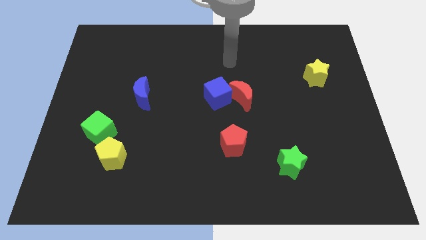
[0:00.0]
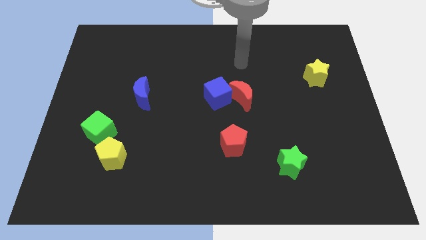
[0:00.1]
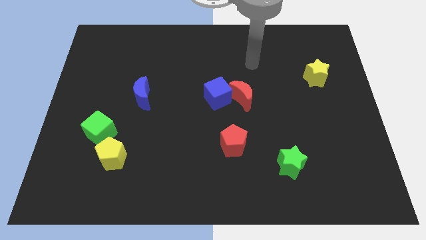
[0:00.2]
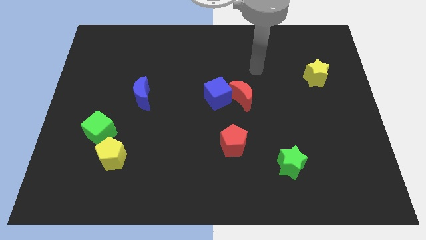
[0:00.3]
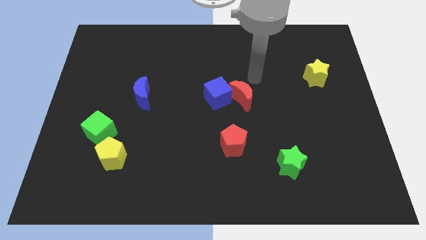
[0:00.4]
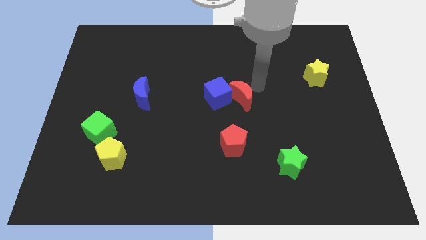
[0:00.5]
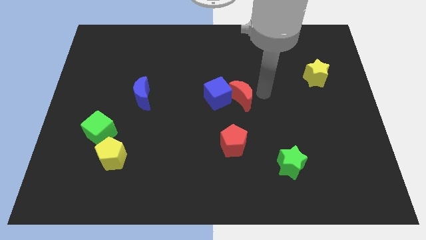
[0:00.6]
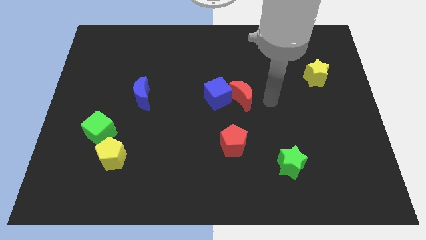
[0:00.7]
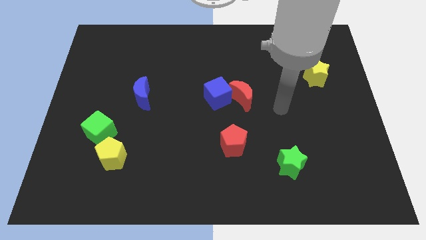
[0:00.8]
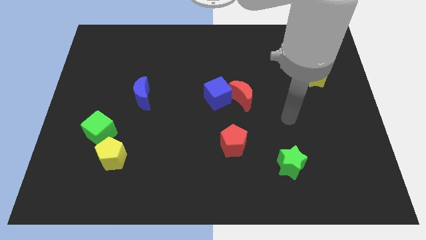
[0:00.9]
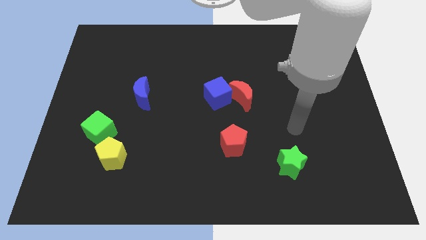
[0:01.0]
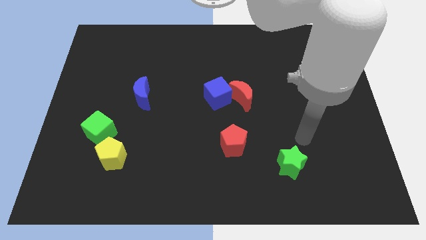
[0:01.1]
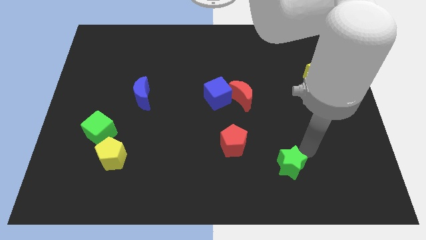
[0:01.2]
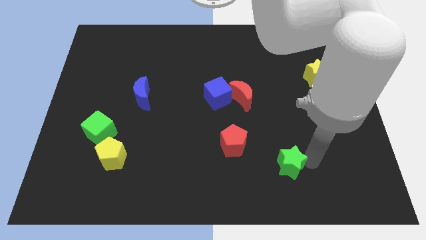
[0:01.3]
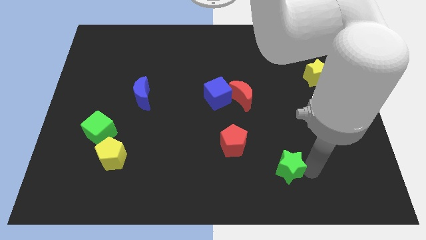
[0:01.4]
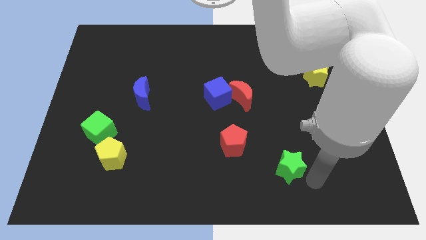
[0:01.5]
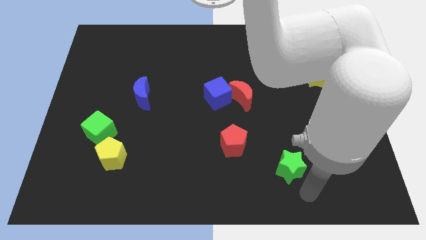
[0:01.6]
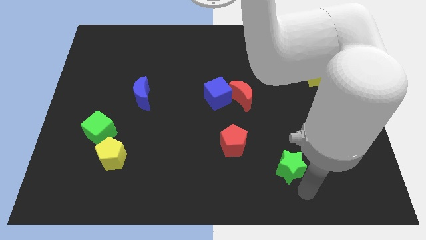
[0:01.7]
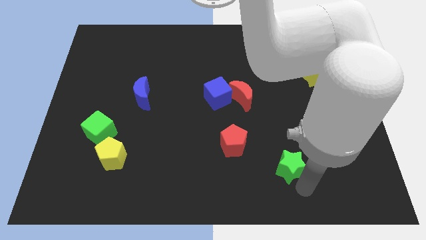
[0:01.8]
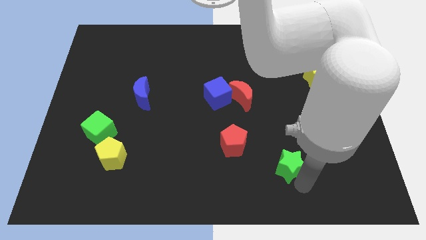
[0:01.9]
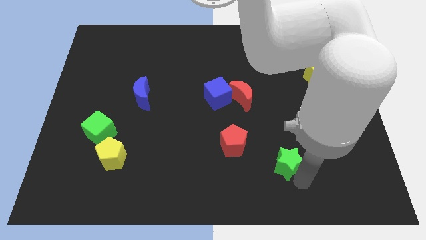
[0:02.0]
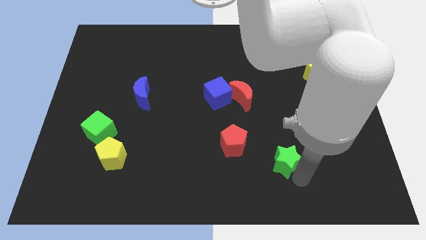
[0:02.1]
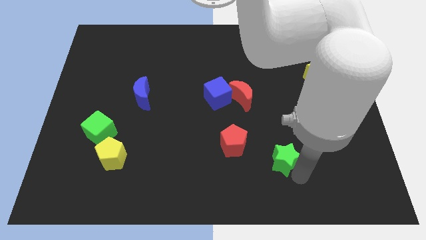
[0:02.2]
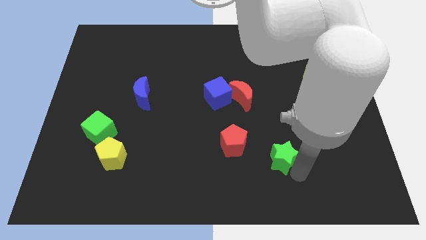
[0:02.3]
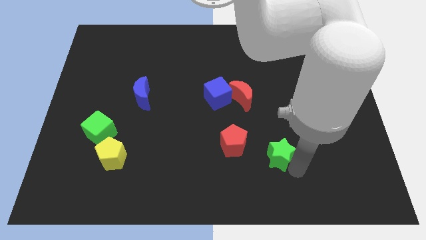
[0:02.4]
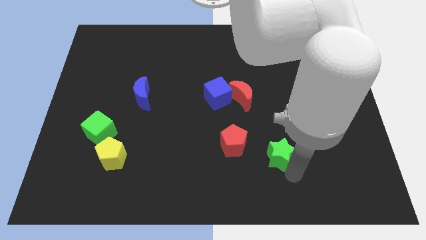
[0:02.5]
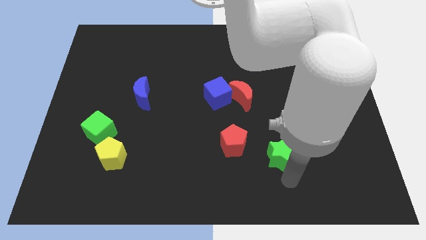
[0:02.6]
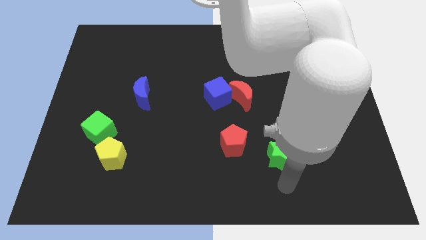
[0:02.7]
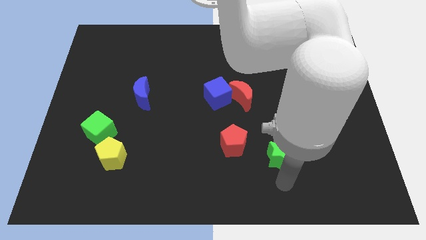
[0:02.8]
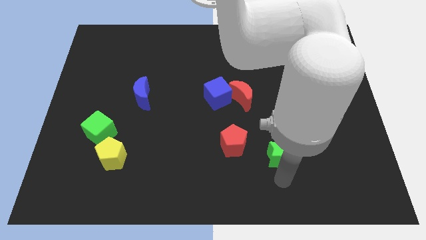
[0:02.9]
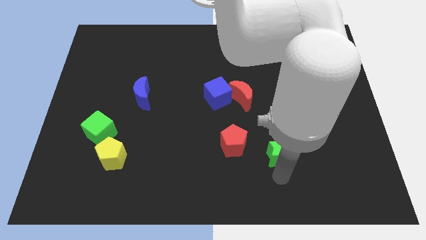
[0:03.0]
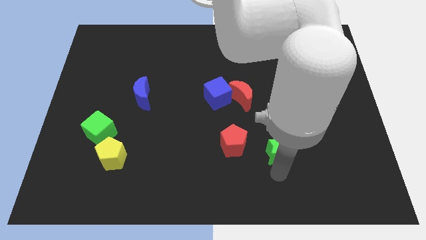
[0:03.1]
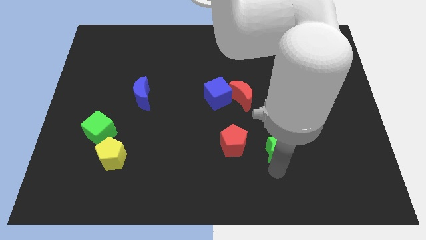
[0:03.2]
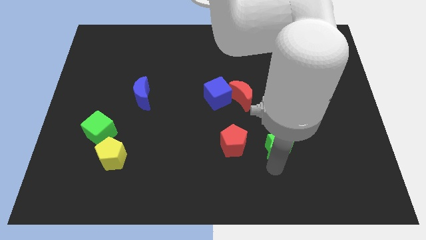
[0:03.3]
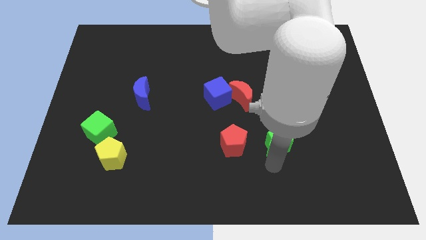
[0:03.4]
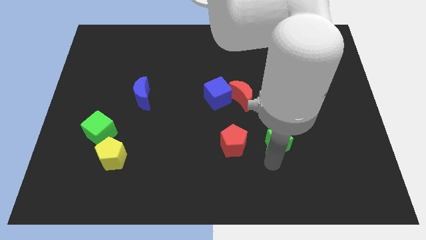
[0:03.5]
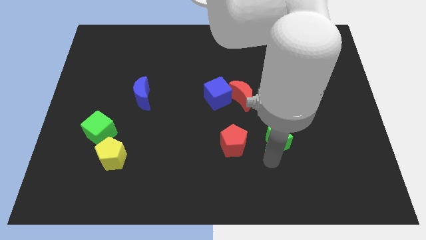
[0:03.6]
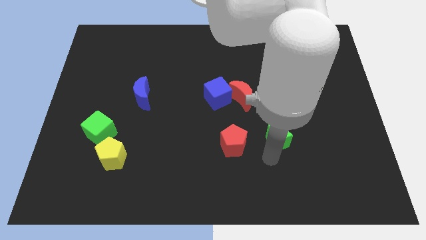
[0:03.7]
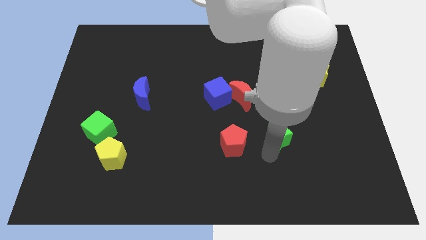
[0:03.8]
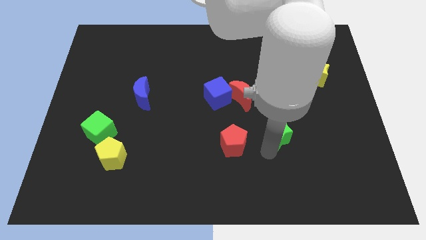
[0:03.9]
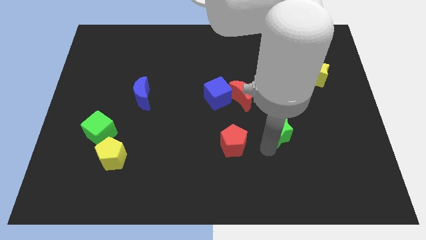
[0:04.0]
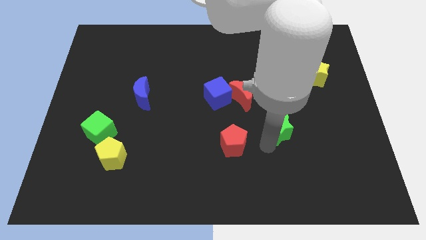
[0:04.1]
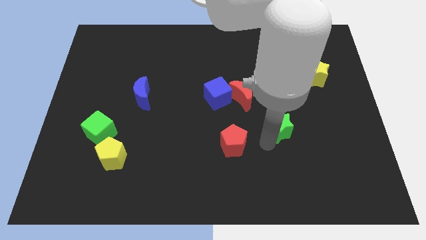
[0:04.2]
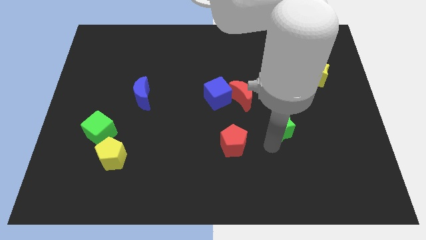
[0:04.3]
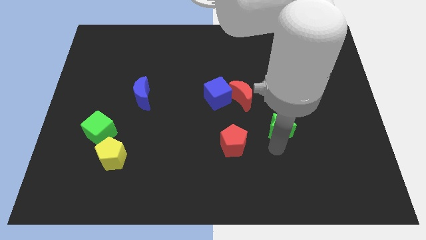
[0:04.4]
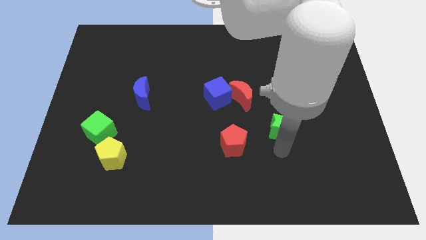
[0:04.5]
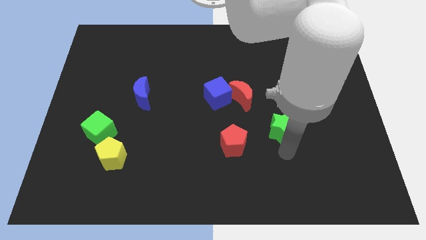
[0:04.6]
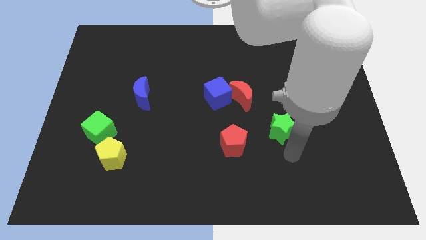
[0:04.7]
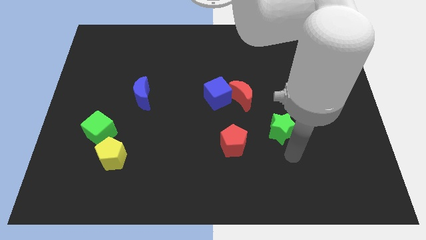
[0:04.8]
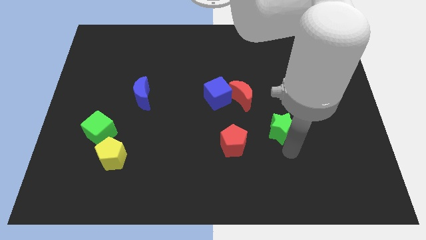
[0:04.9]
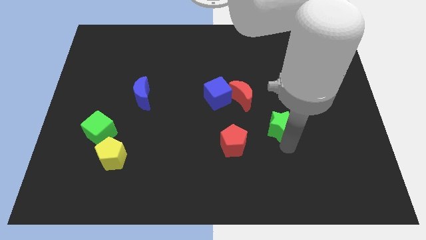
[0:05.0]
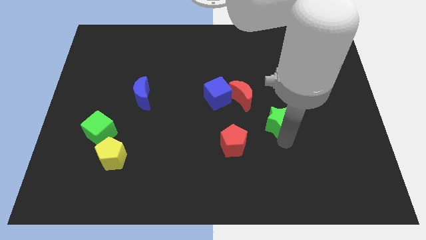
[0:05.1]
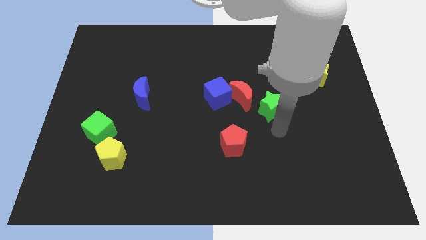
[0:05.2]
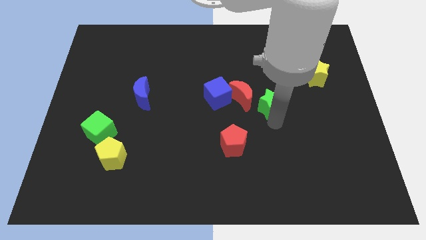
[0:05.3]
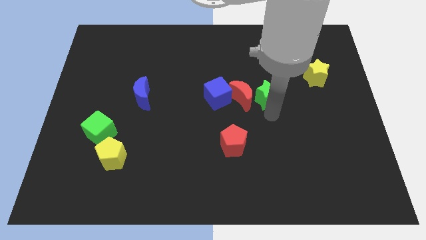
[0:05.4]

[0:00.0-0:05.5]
put the green star diagonally up and to the right of the red moon

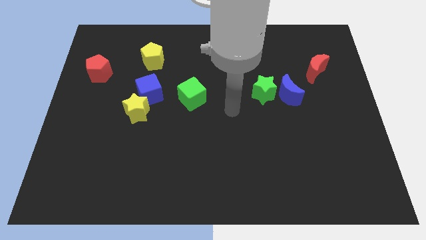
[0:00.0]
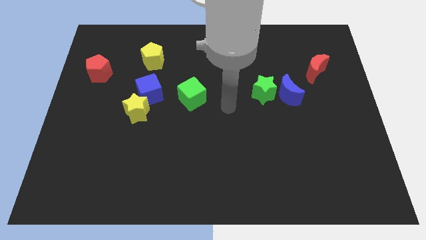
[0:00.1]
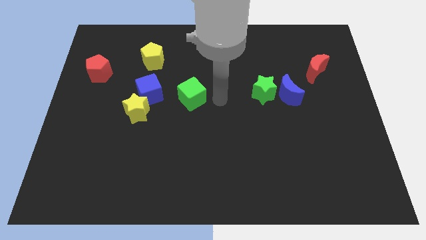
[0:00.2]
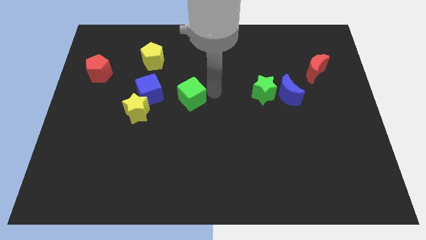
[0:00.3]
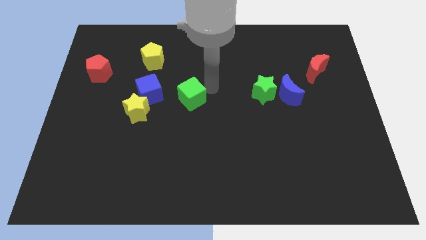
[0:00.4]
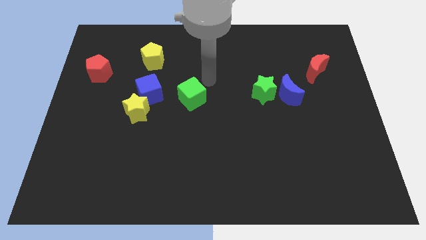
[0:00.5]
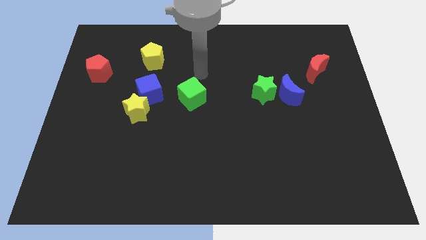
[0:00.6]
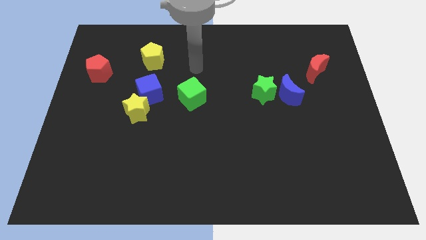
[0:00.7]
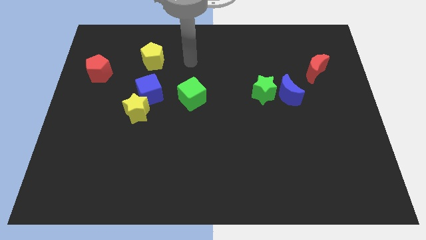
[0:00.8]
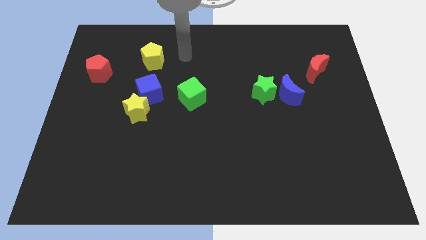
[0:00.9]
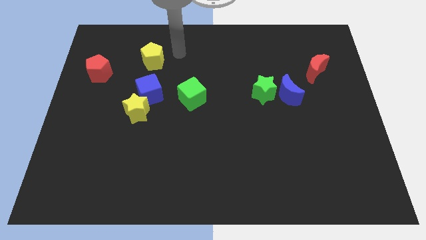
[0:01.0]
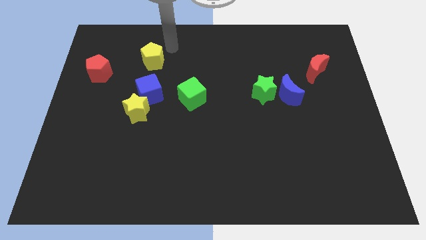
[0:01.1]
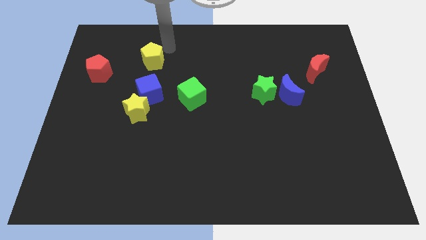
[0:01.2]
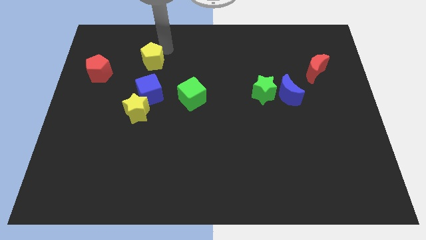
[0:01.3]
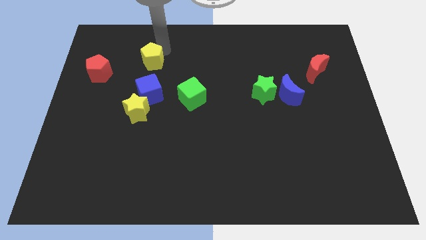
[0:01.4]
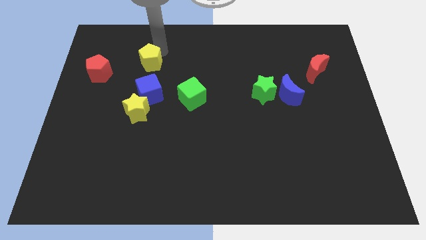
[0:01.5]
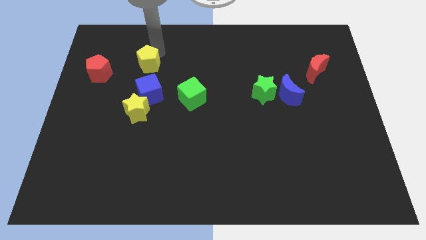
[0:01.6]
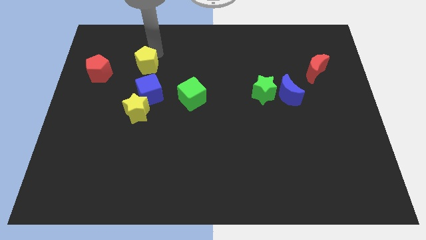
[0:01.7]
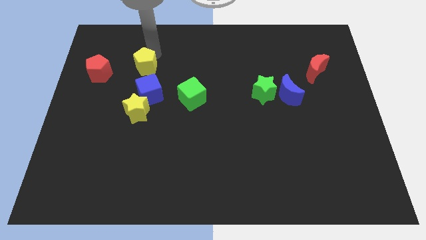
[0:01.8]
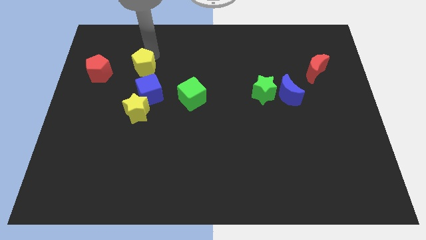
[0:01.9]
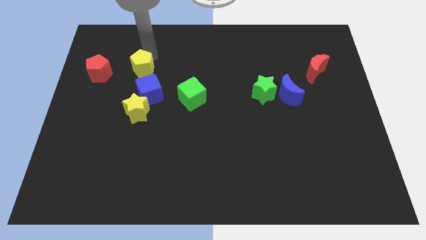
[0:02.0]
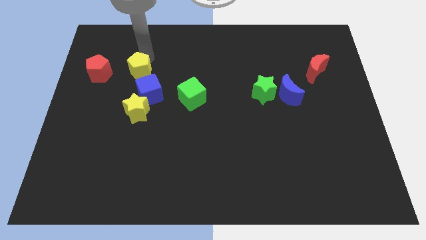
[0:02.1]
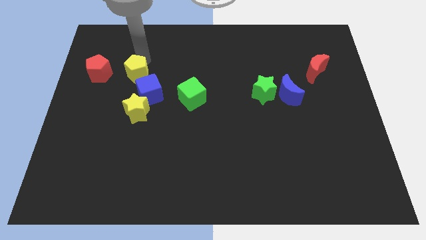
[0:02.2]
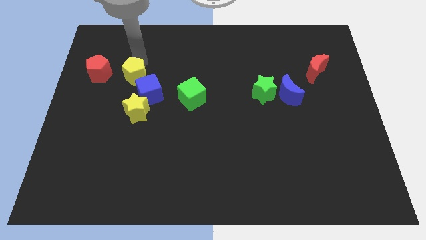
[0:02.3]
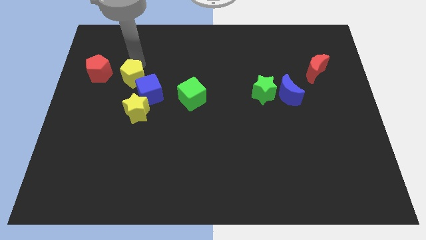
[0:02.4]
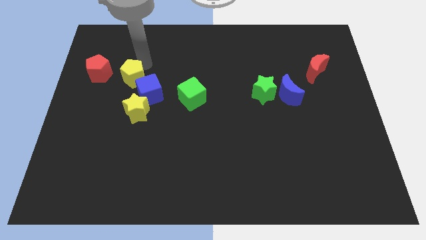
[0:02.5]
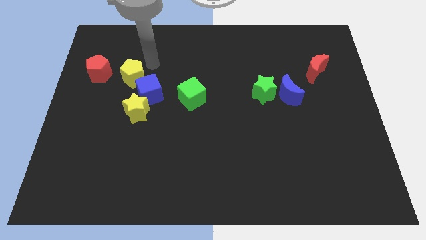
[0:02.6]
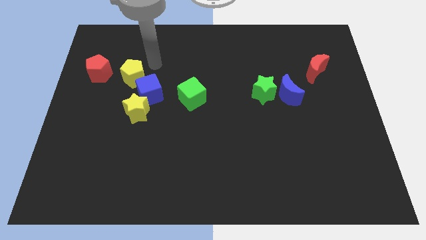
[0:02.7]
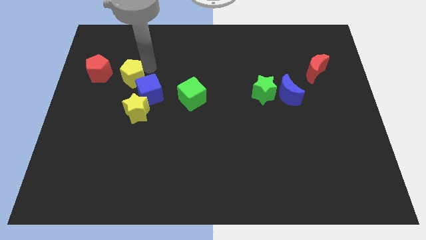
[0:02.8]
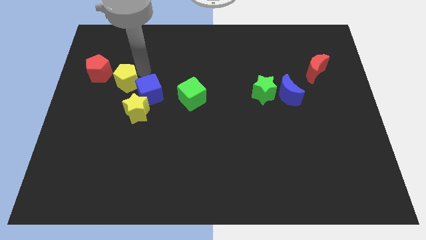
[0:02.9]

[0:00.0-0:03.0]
slide the yellow pentagon to the left of the blue cube
